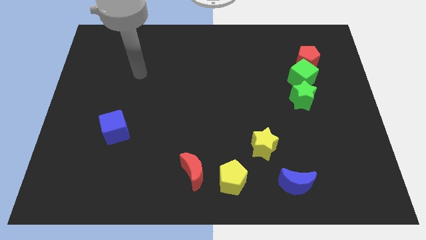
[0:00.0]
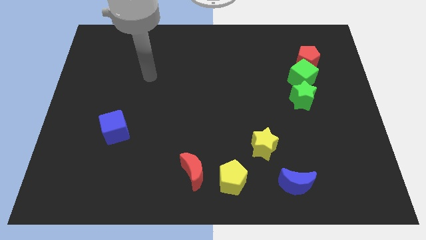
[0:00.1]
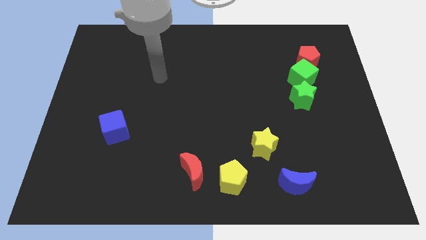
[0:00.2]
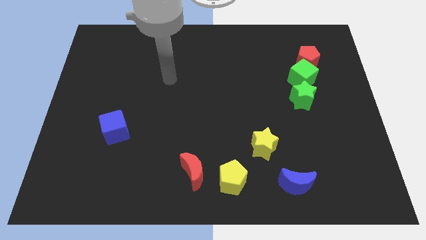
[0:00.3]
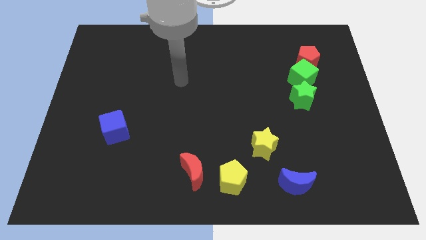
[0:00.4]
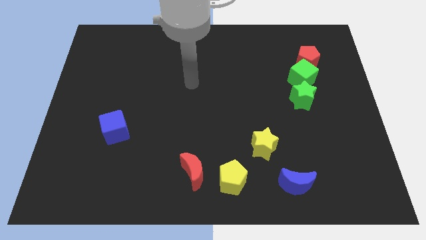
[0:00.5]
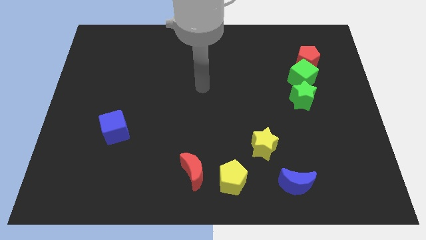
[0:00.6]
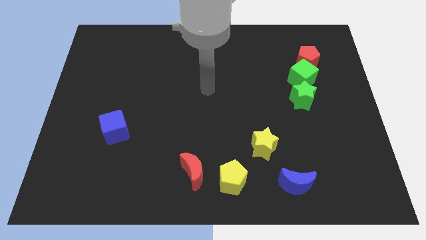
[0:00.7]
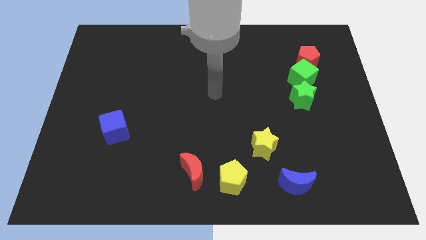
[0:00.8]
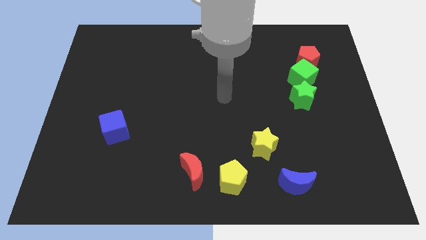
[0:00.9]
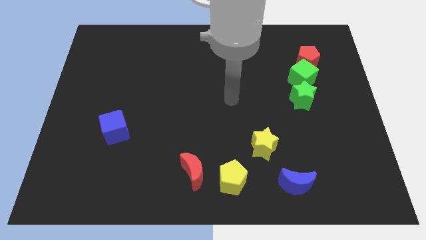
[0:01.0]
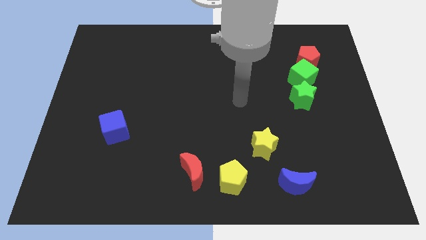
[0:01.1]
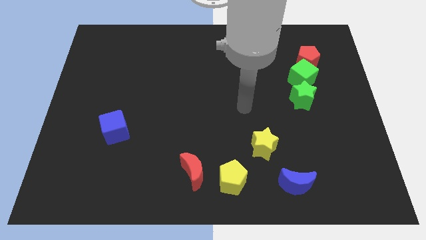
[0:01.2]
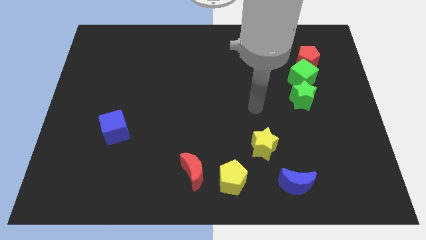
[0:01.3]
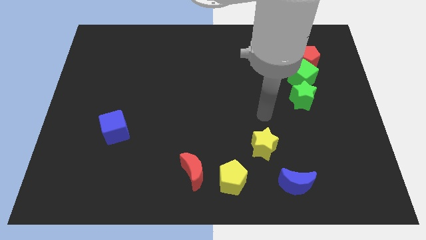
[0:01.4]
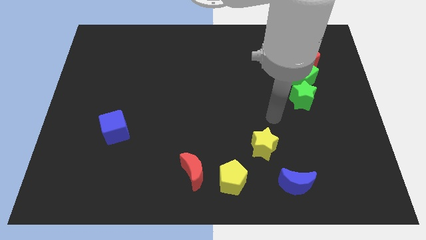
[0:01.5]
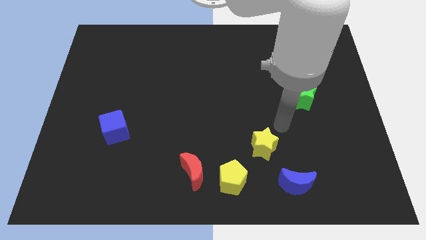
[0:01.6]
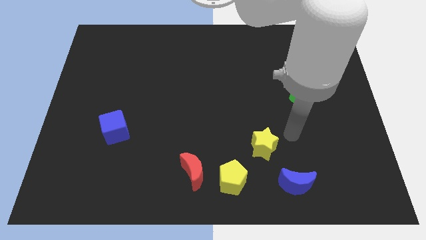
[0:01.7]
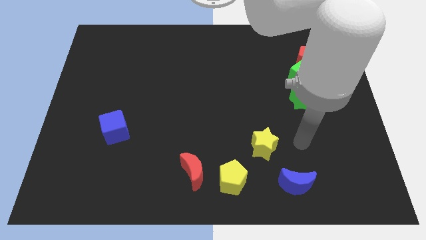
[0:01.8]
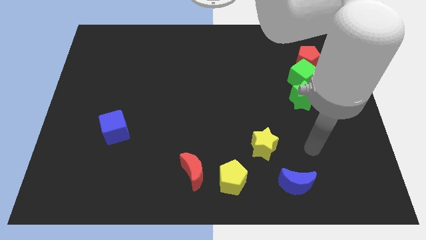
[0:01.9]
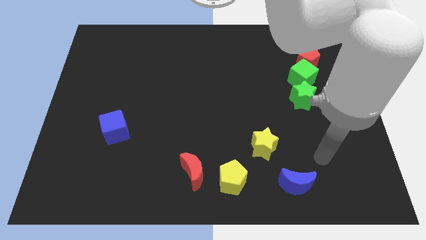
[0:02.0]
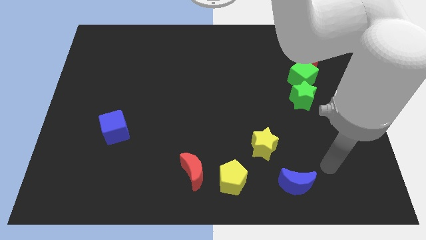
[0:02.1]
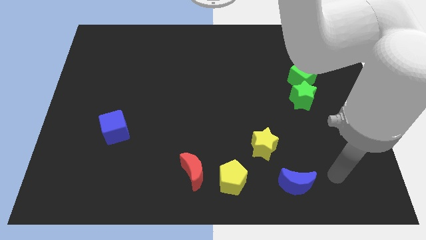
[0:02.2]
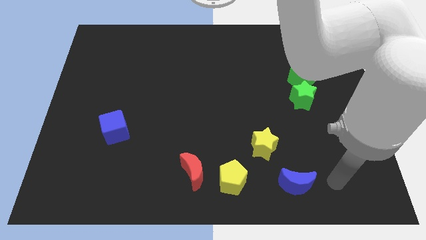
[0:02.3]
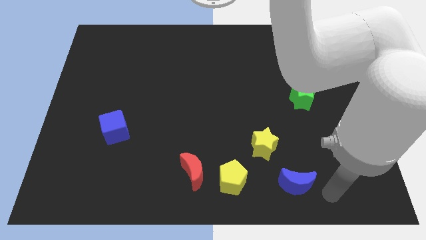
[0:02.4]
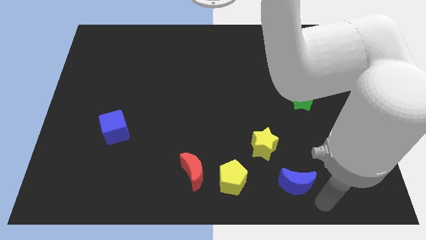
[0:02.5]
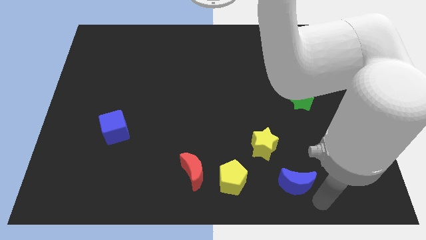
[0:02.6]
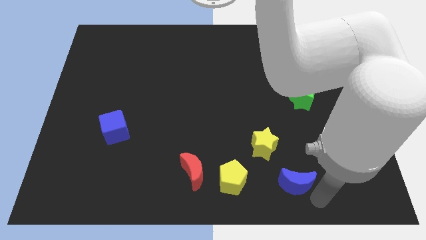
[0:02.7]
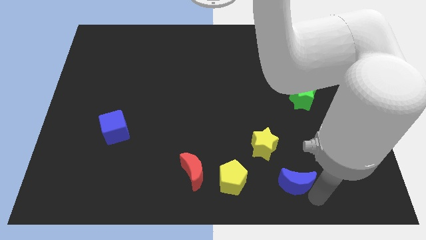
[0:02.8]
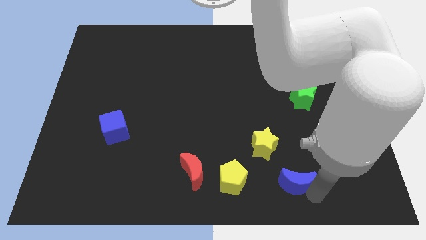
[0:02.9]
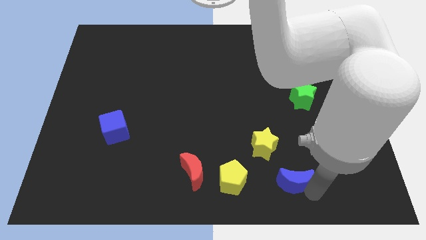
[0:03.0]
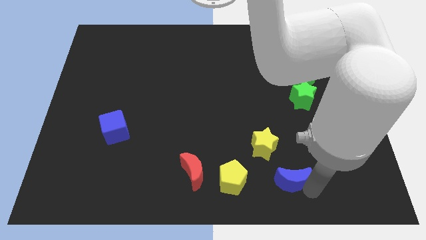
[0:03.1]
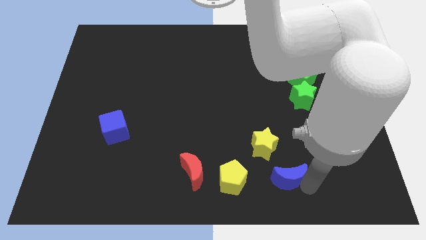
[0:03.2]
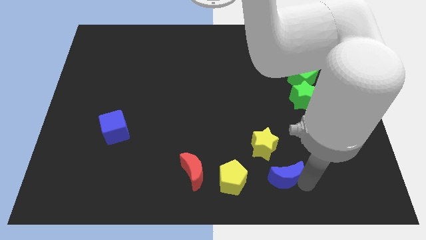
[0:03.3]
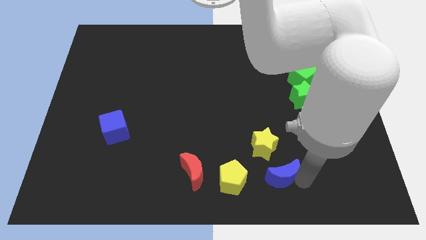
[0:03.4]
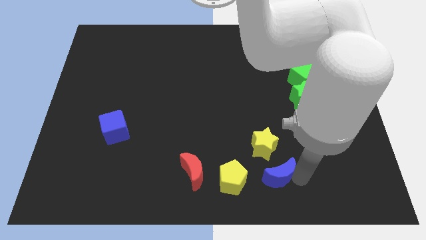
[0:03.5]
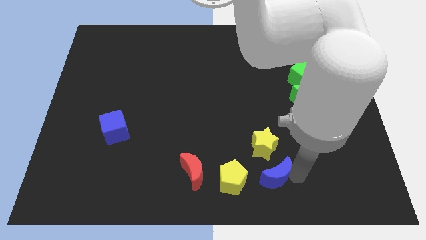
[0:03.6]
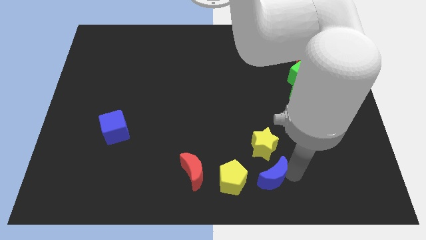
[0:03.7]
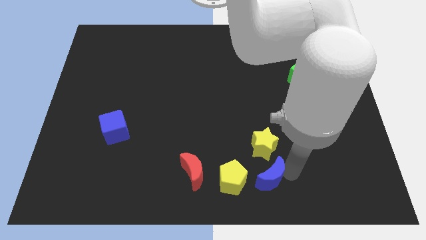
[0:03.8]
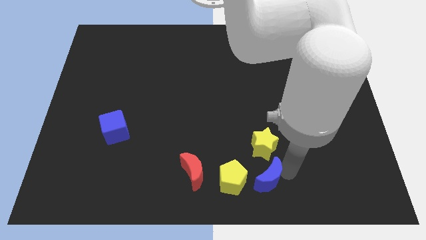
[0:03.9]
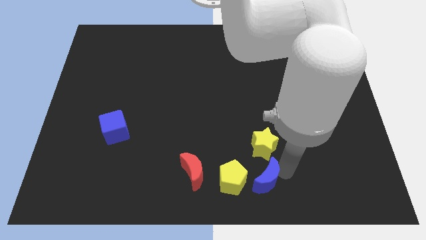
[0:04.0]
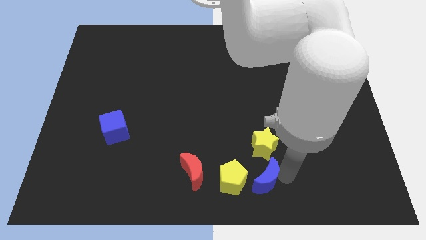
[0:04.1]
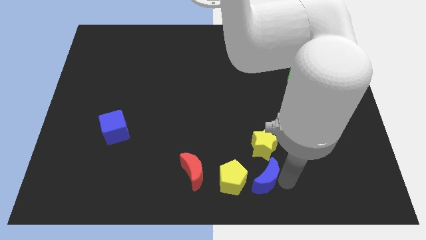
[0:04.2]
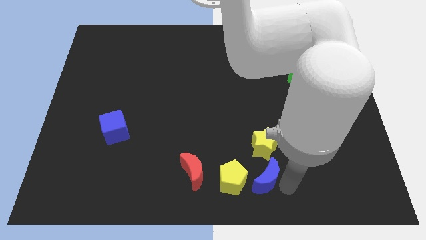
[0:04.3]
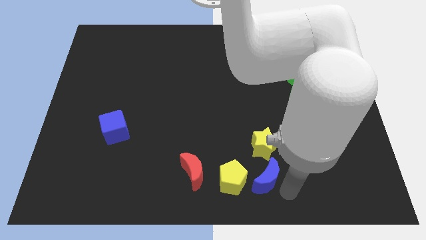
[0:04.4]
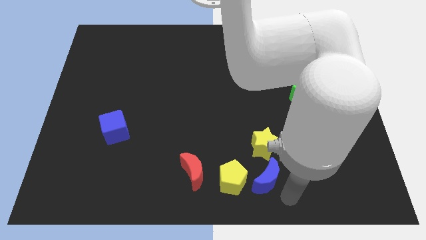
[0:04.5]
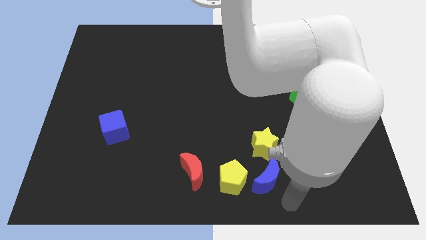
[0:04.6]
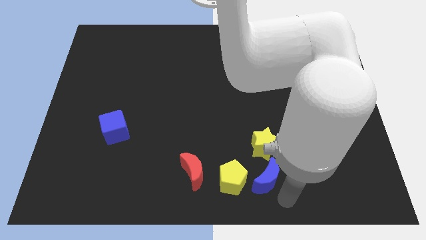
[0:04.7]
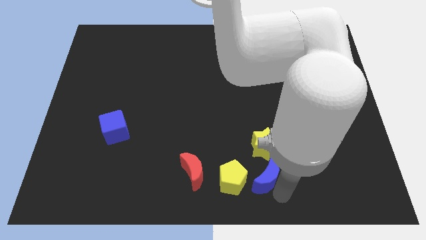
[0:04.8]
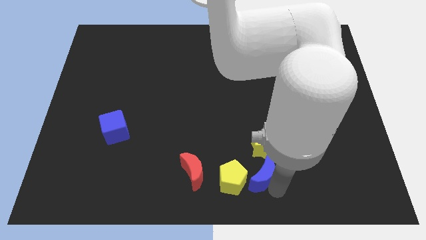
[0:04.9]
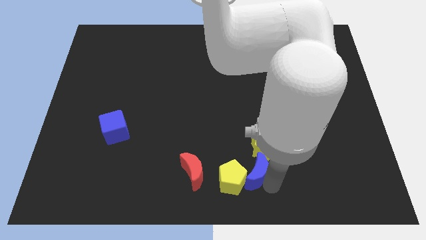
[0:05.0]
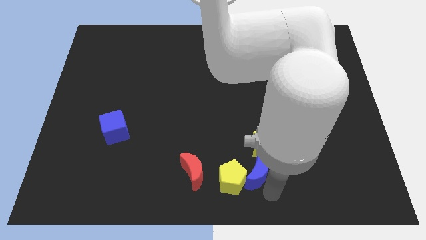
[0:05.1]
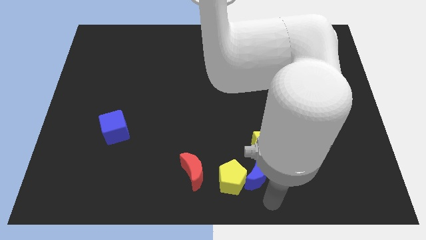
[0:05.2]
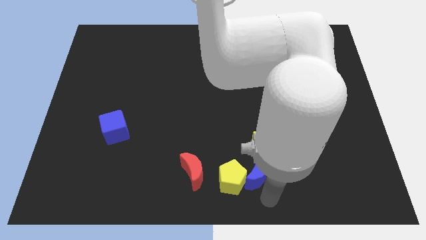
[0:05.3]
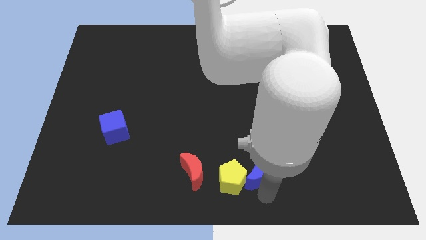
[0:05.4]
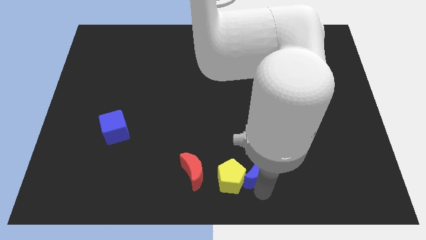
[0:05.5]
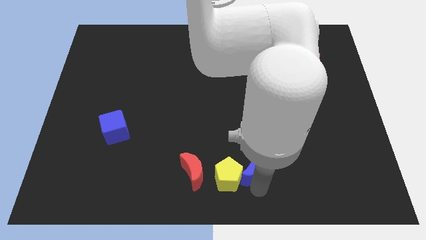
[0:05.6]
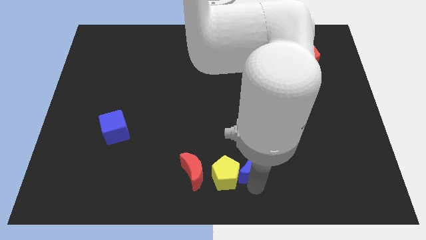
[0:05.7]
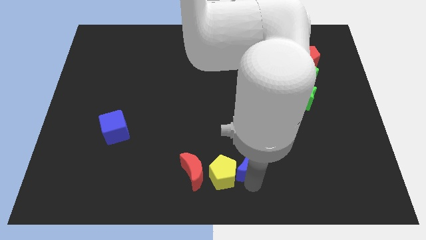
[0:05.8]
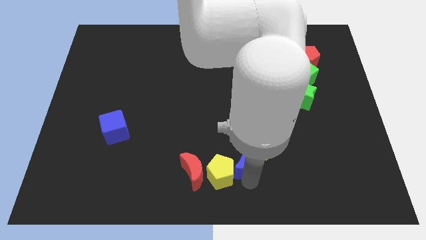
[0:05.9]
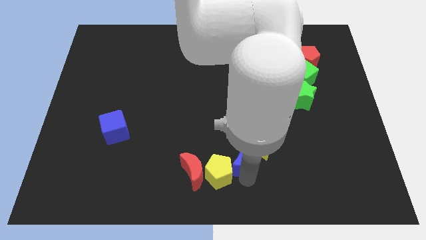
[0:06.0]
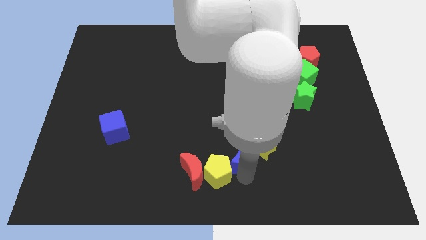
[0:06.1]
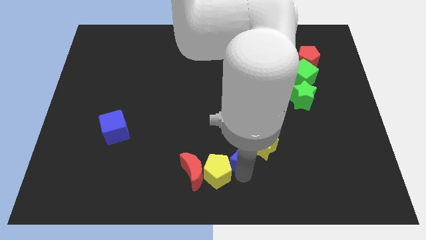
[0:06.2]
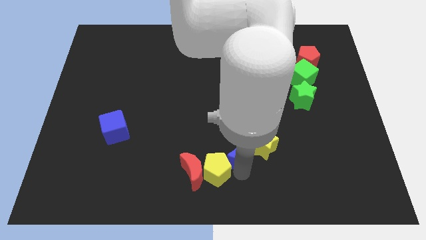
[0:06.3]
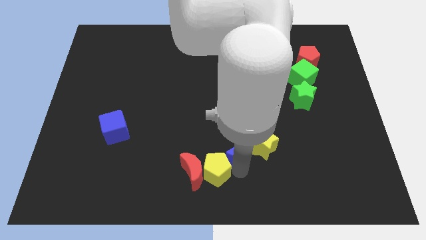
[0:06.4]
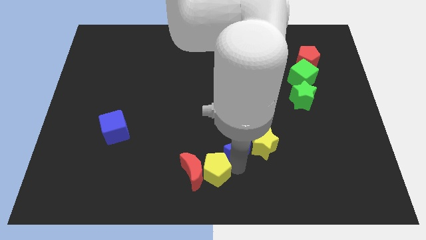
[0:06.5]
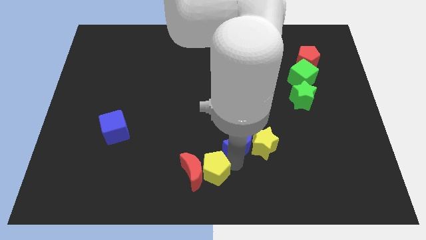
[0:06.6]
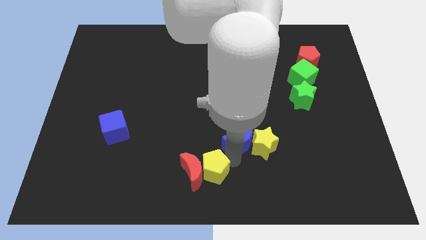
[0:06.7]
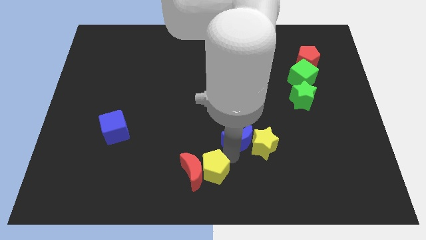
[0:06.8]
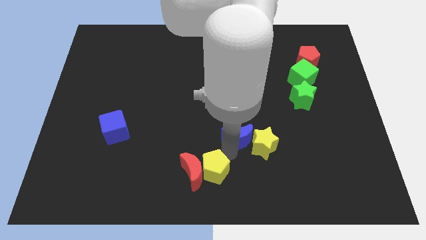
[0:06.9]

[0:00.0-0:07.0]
put the blue moon to the middle

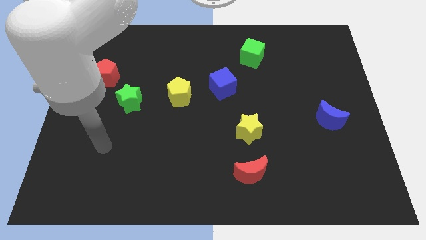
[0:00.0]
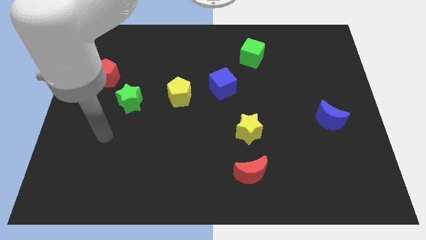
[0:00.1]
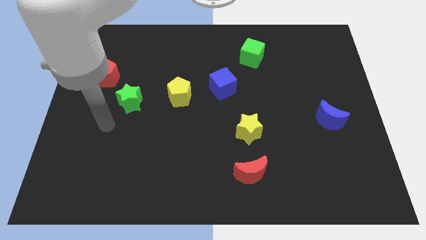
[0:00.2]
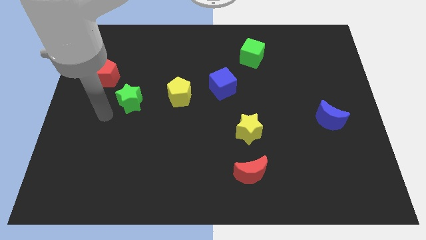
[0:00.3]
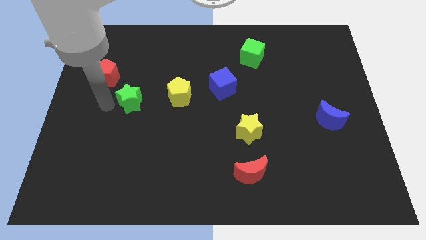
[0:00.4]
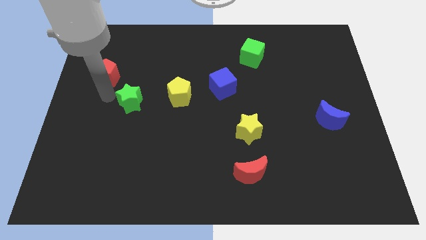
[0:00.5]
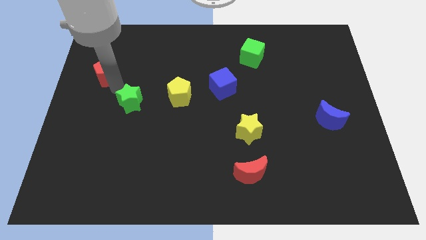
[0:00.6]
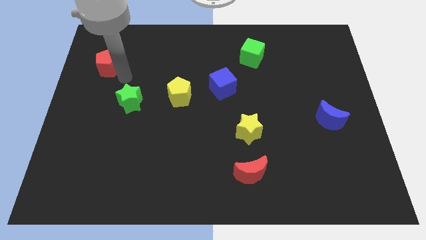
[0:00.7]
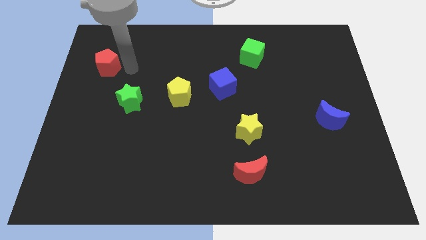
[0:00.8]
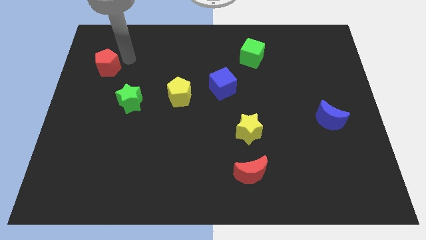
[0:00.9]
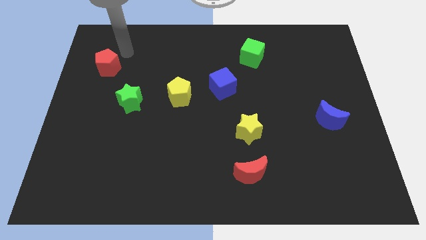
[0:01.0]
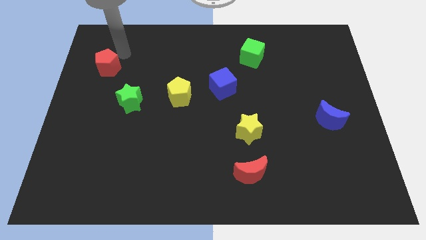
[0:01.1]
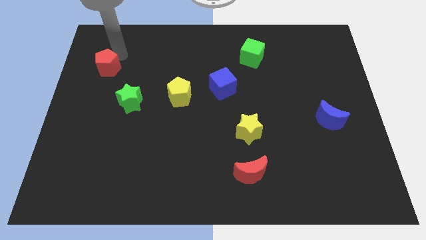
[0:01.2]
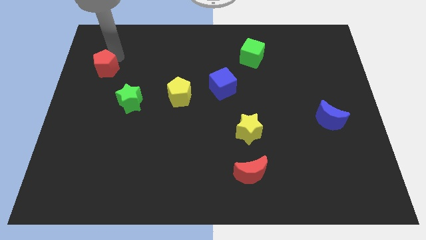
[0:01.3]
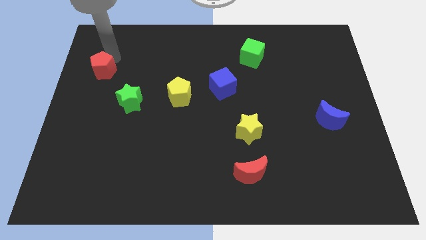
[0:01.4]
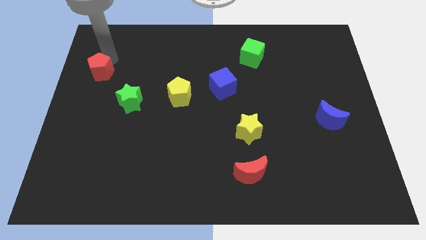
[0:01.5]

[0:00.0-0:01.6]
slide the red pentagon to the left side
